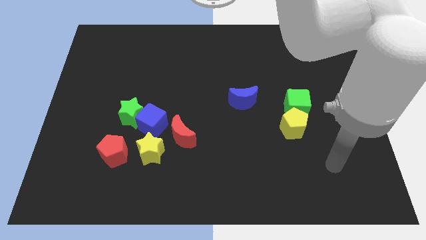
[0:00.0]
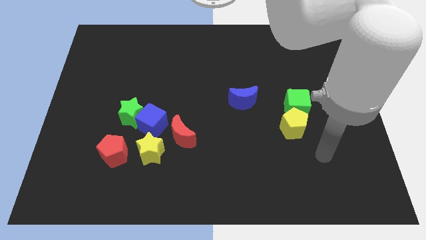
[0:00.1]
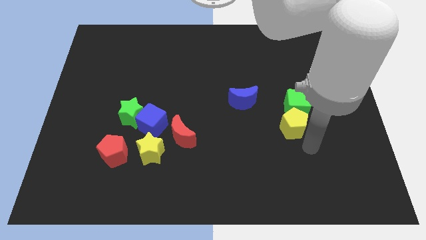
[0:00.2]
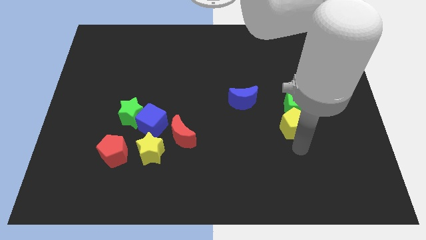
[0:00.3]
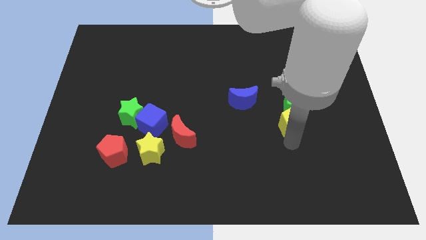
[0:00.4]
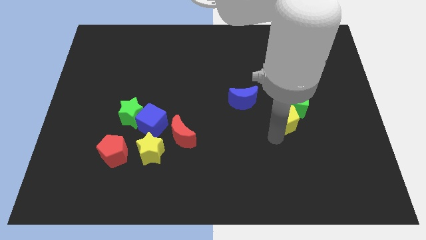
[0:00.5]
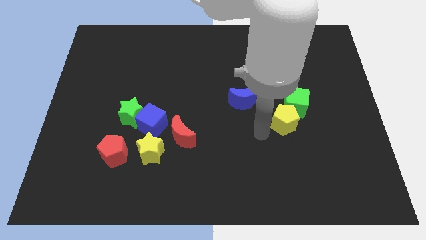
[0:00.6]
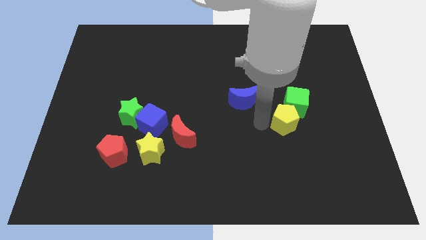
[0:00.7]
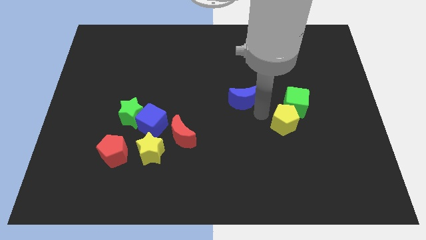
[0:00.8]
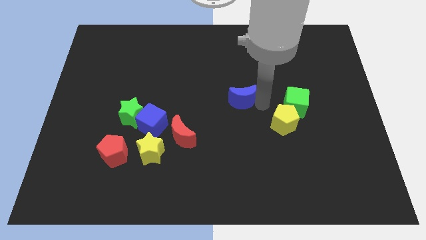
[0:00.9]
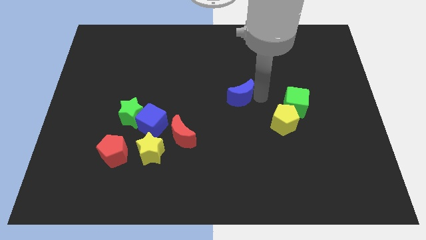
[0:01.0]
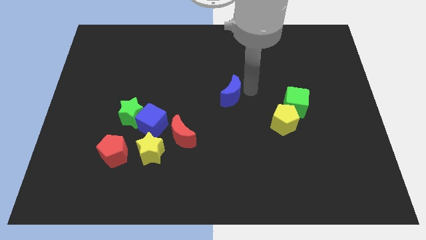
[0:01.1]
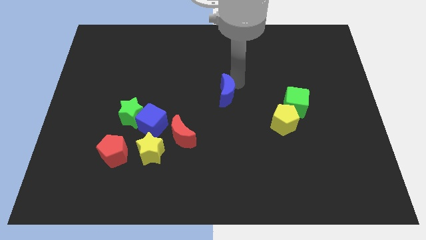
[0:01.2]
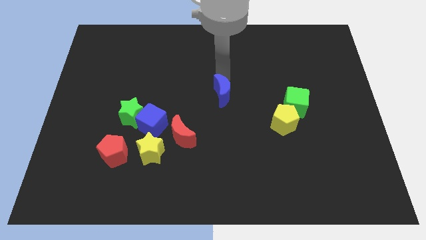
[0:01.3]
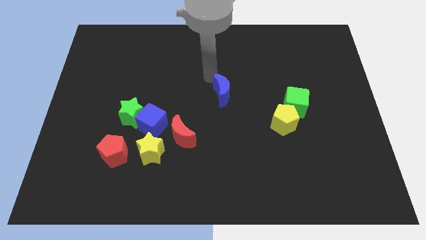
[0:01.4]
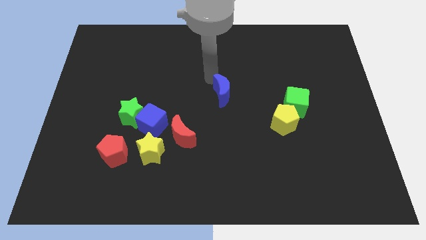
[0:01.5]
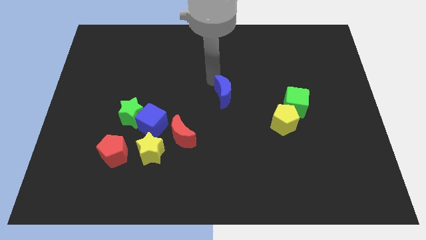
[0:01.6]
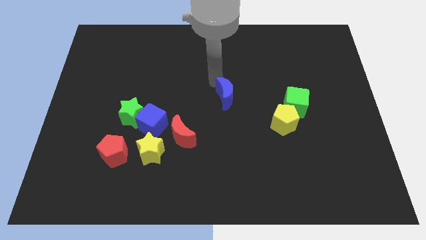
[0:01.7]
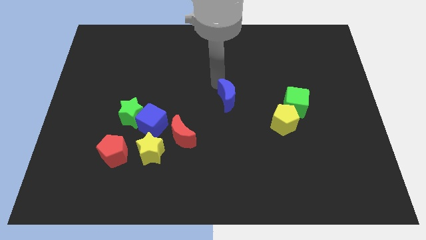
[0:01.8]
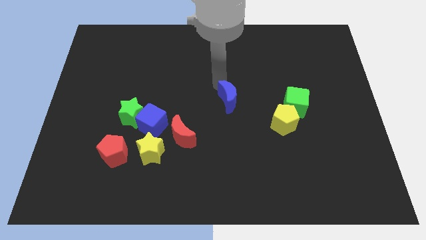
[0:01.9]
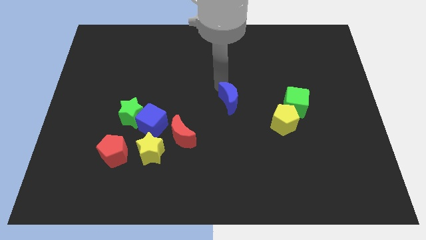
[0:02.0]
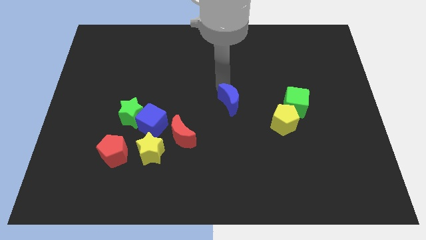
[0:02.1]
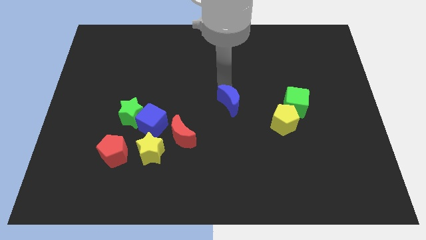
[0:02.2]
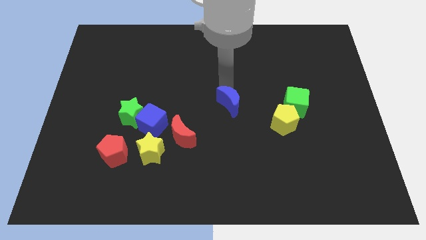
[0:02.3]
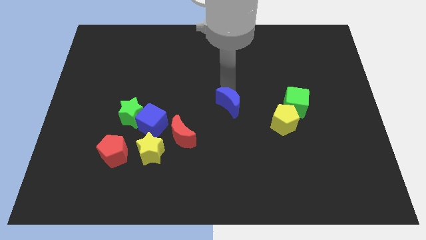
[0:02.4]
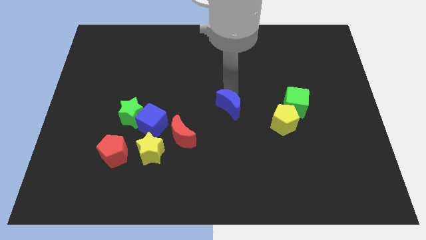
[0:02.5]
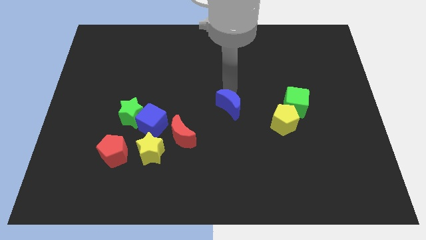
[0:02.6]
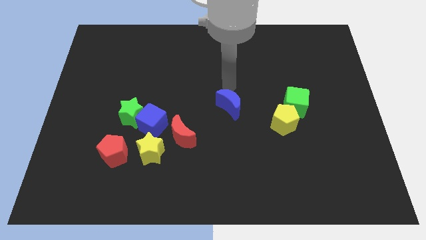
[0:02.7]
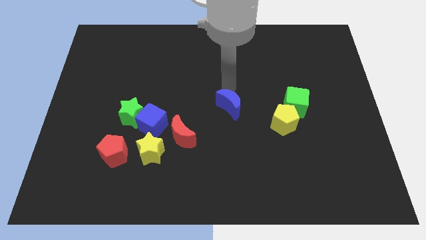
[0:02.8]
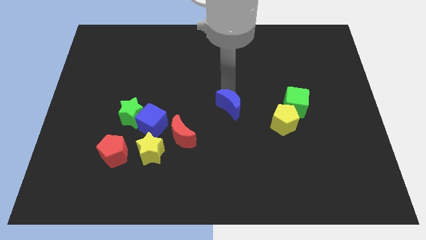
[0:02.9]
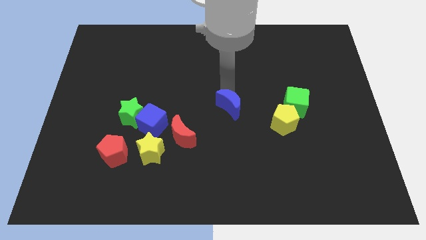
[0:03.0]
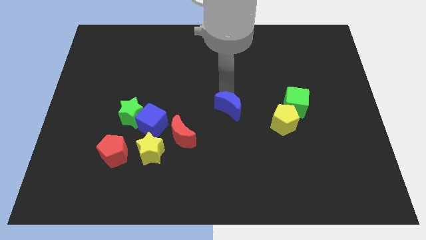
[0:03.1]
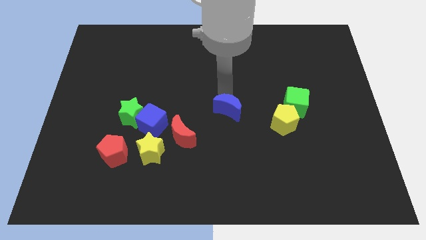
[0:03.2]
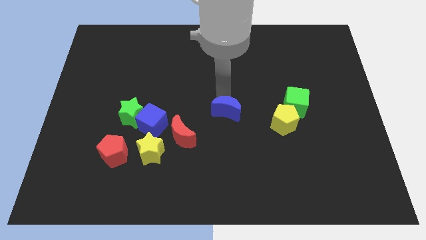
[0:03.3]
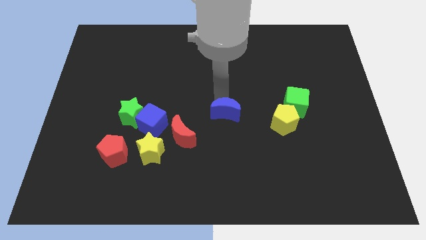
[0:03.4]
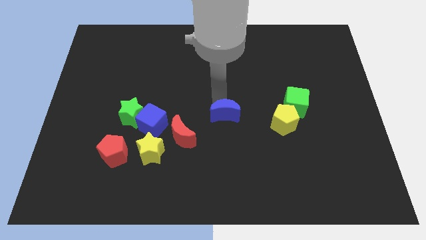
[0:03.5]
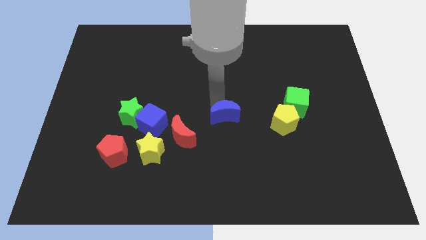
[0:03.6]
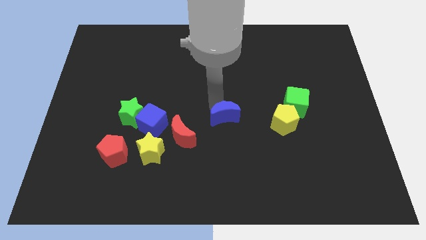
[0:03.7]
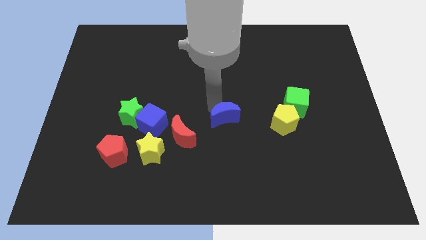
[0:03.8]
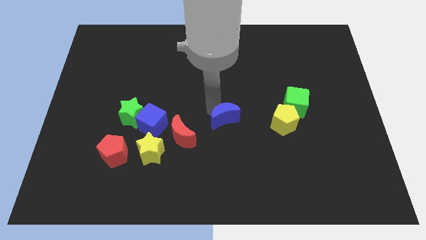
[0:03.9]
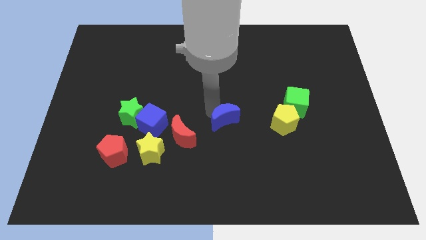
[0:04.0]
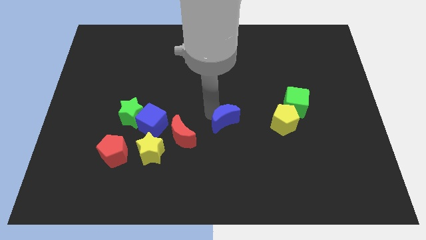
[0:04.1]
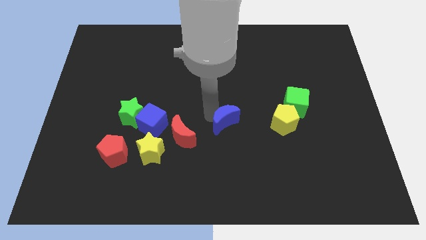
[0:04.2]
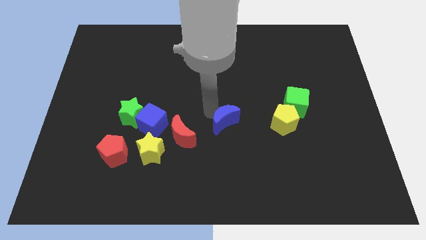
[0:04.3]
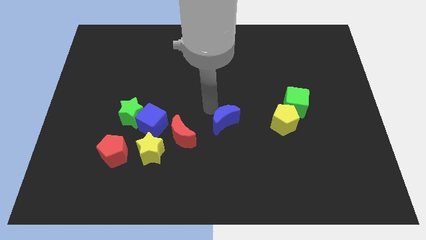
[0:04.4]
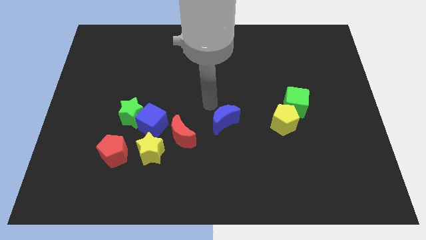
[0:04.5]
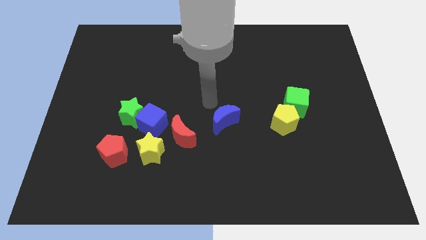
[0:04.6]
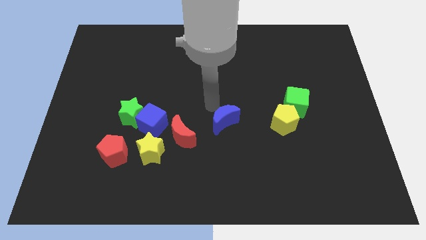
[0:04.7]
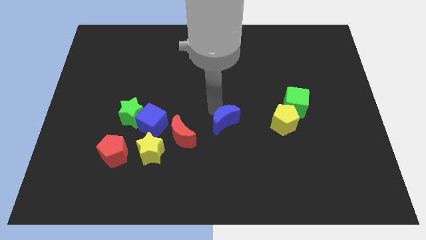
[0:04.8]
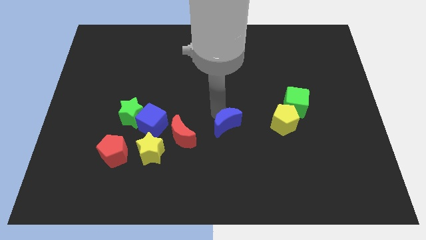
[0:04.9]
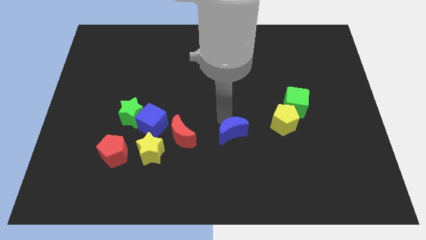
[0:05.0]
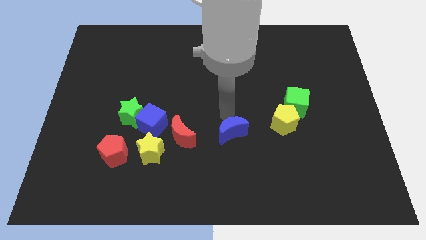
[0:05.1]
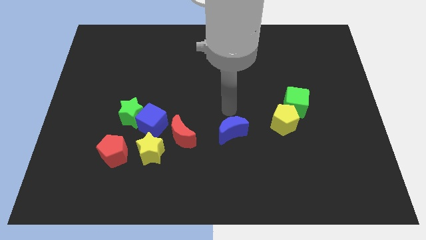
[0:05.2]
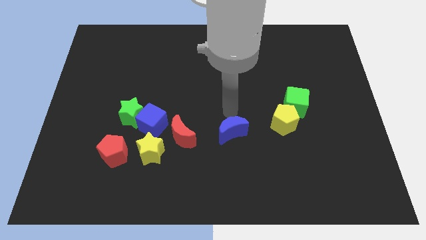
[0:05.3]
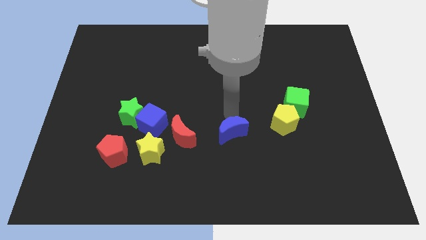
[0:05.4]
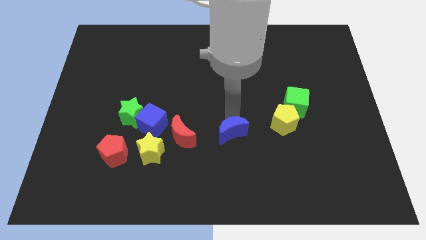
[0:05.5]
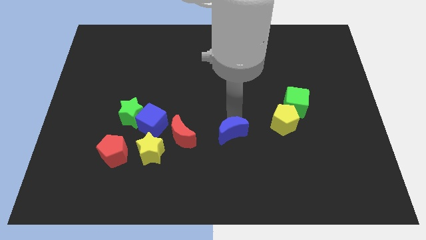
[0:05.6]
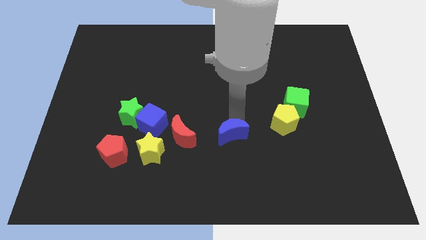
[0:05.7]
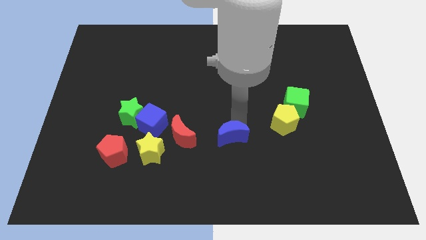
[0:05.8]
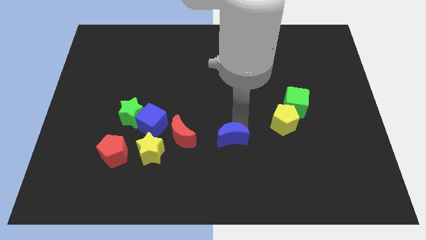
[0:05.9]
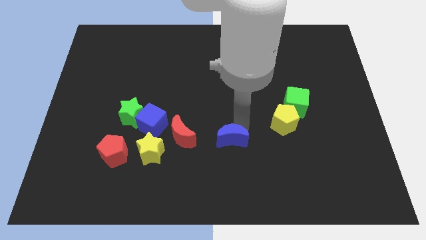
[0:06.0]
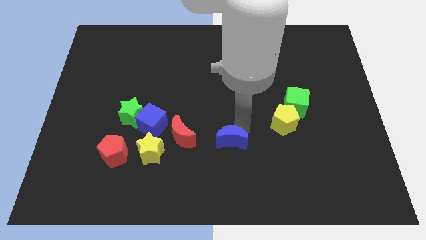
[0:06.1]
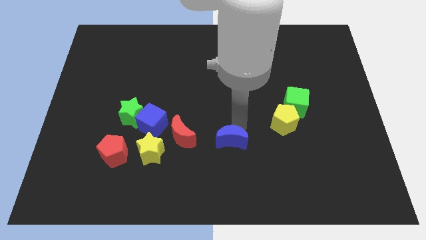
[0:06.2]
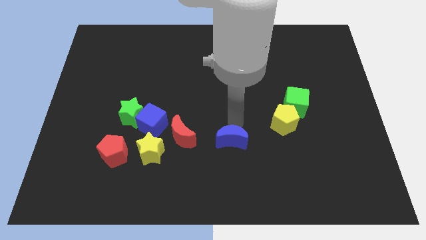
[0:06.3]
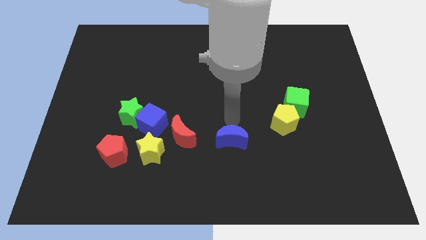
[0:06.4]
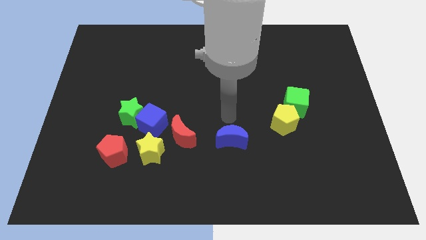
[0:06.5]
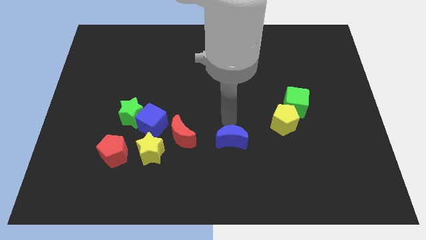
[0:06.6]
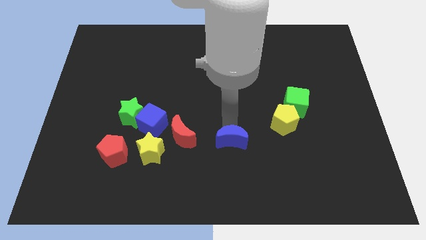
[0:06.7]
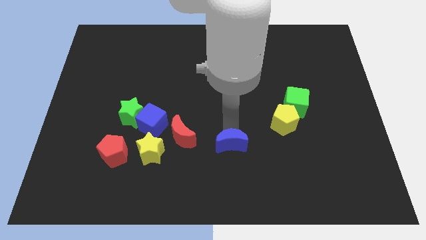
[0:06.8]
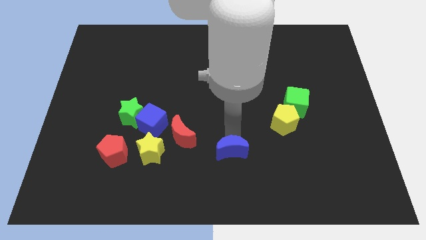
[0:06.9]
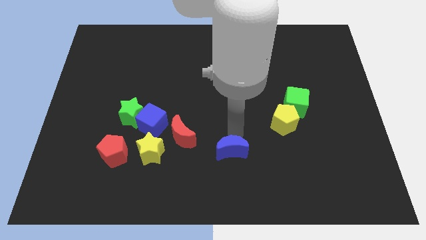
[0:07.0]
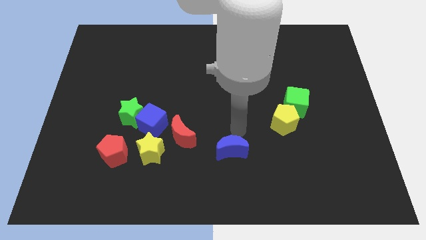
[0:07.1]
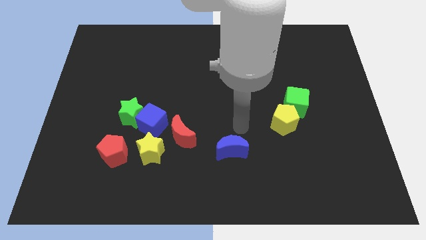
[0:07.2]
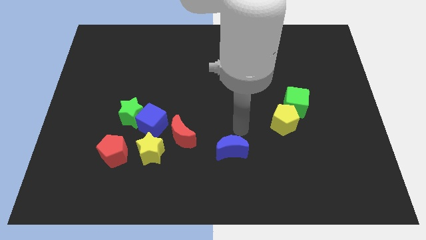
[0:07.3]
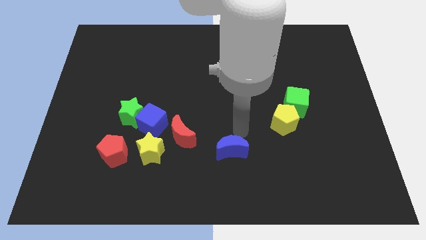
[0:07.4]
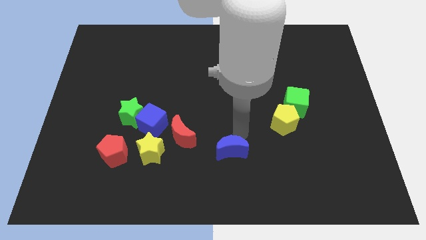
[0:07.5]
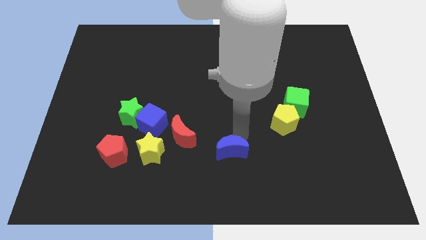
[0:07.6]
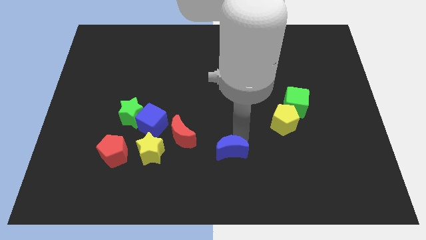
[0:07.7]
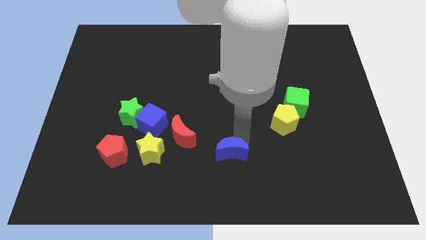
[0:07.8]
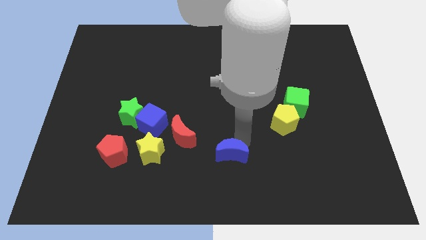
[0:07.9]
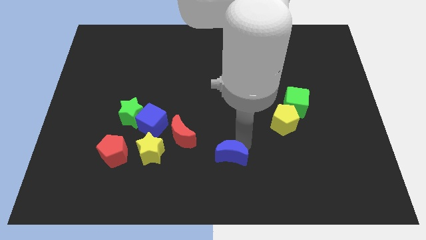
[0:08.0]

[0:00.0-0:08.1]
move the blue moon to the bottom
